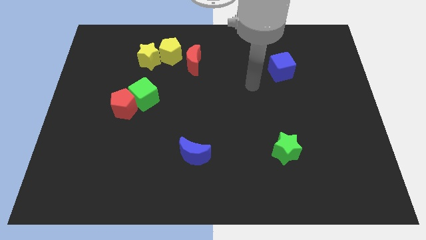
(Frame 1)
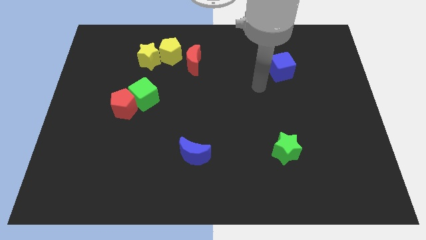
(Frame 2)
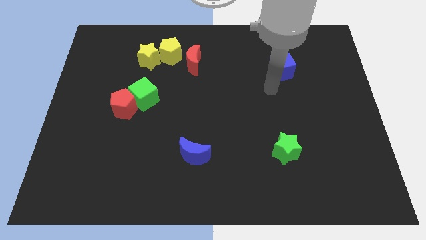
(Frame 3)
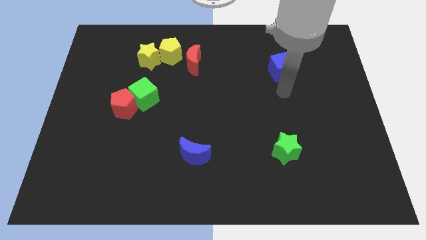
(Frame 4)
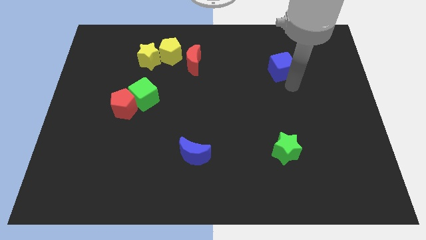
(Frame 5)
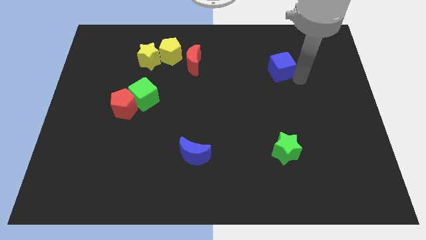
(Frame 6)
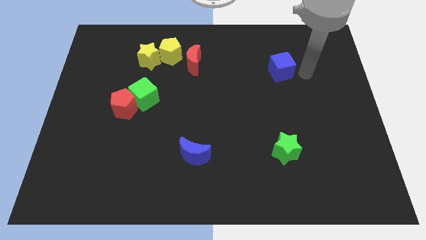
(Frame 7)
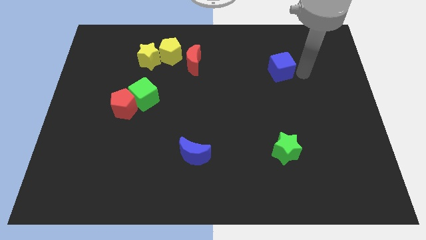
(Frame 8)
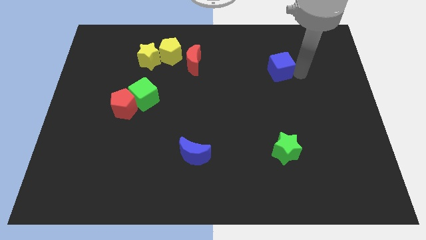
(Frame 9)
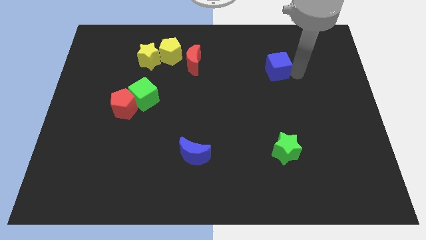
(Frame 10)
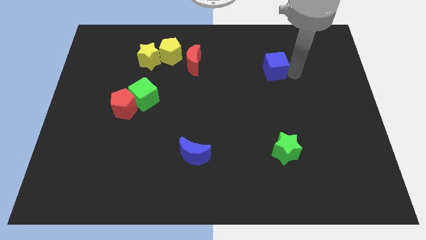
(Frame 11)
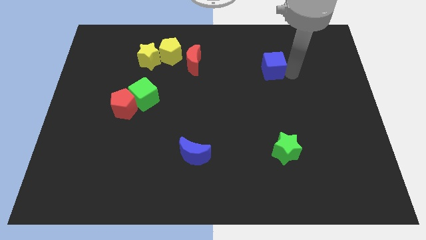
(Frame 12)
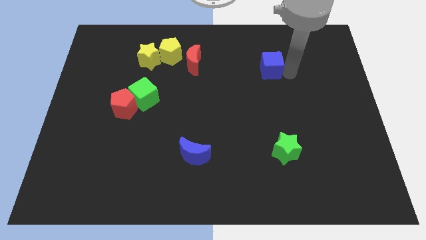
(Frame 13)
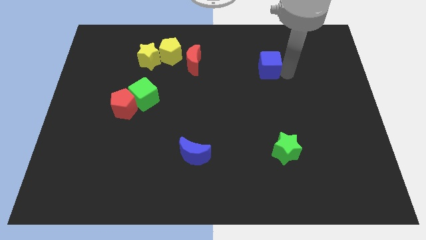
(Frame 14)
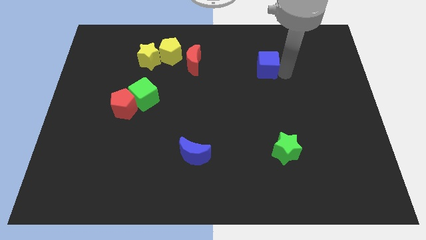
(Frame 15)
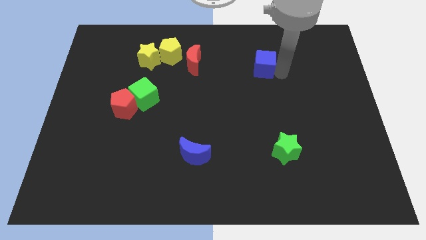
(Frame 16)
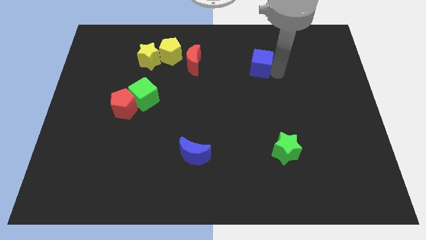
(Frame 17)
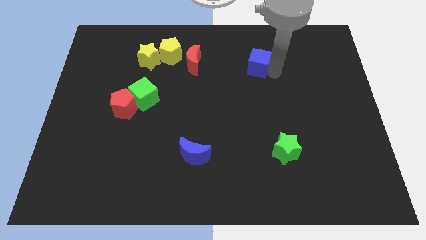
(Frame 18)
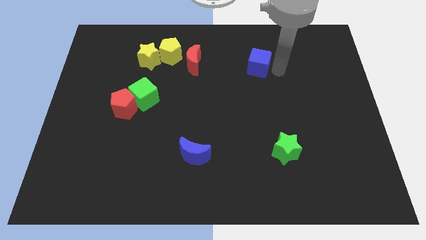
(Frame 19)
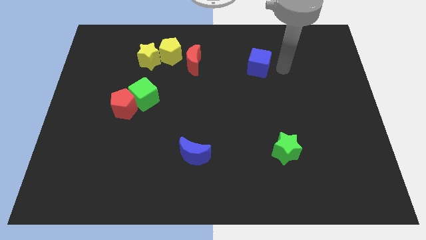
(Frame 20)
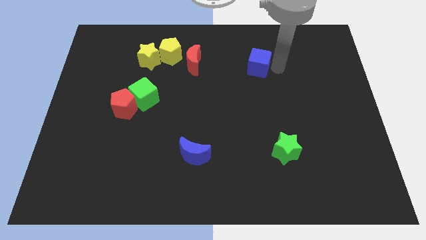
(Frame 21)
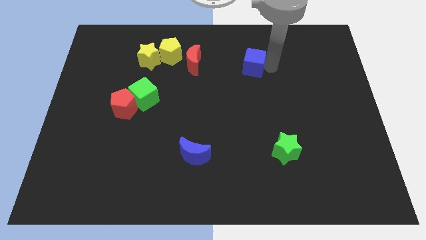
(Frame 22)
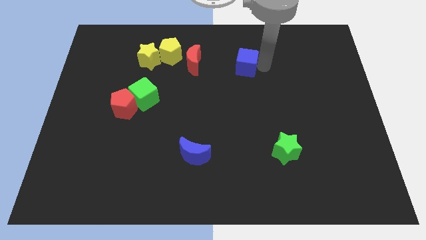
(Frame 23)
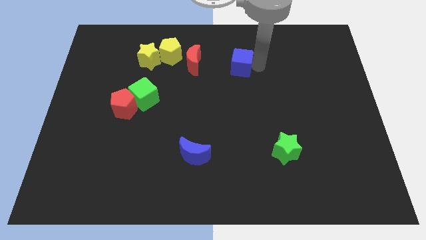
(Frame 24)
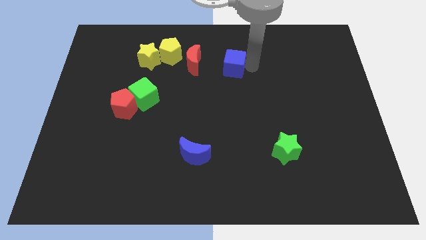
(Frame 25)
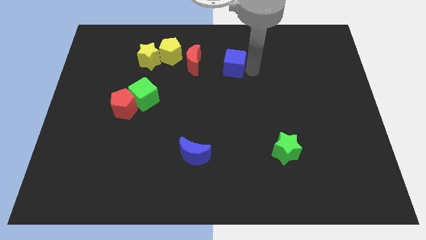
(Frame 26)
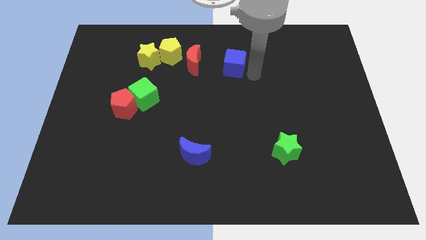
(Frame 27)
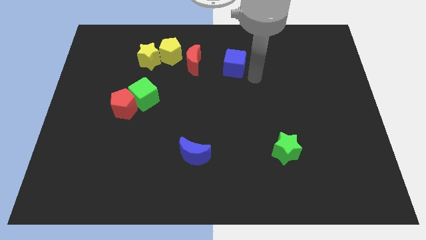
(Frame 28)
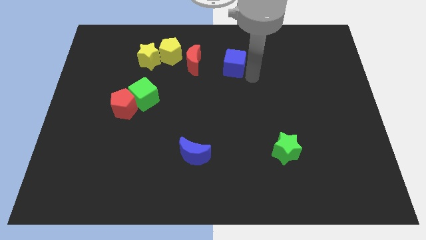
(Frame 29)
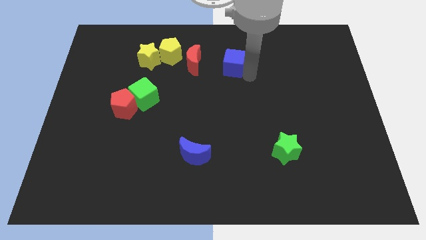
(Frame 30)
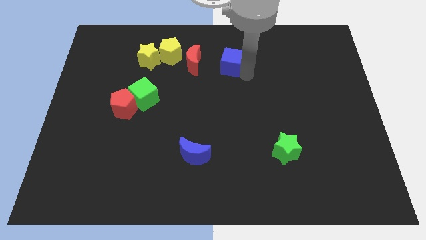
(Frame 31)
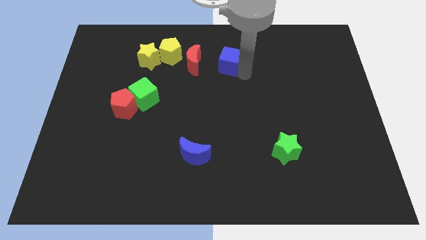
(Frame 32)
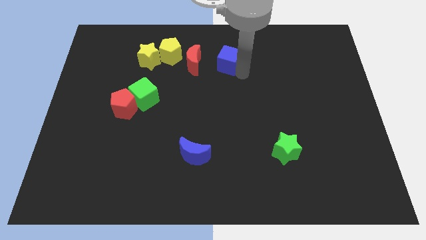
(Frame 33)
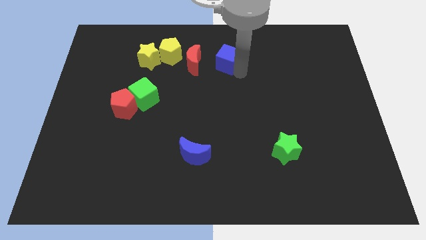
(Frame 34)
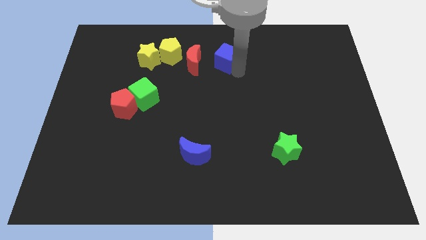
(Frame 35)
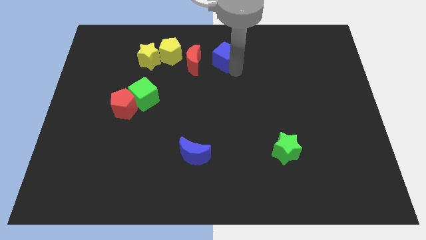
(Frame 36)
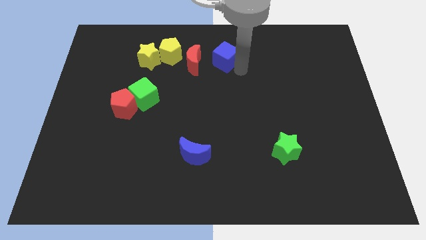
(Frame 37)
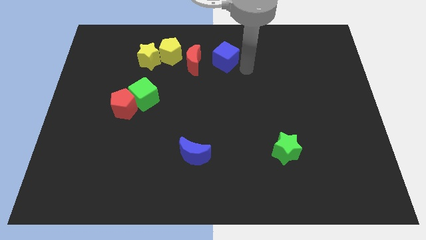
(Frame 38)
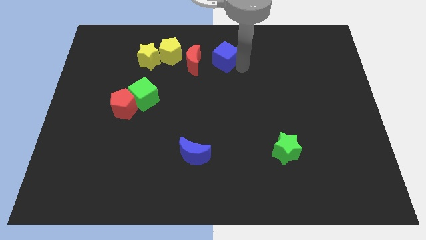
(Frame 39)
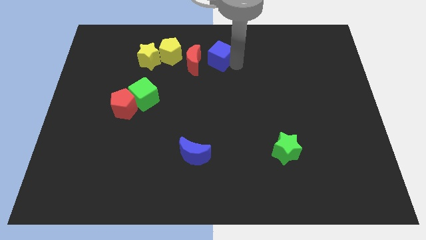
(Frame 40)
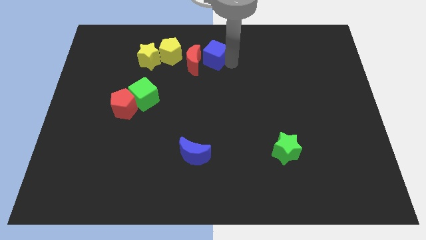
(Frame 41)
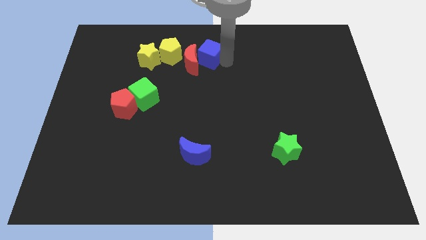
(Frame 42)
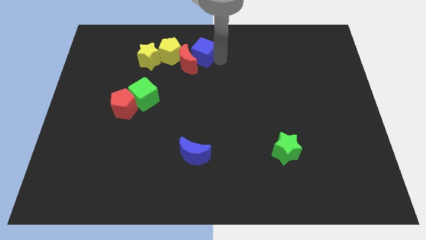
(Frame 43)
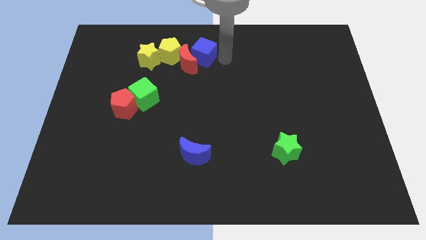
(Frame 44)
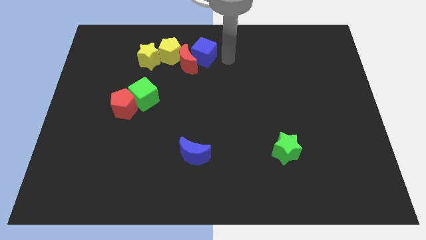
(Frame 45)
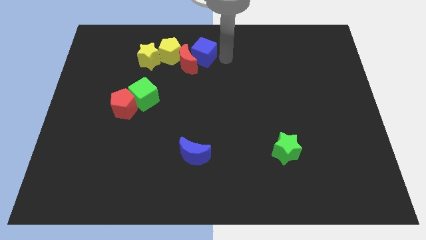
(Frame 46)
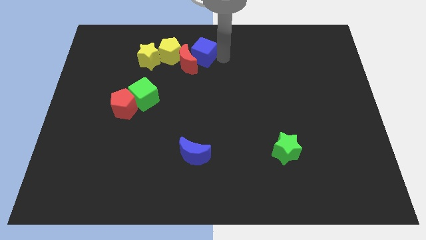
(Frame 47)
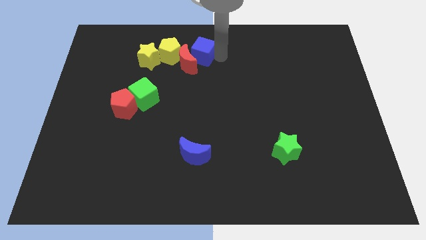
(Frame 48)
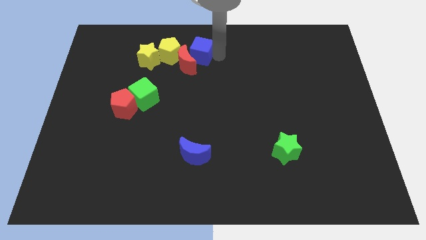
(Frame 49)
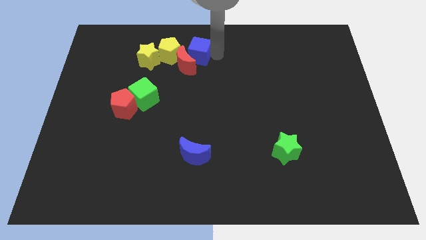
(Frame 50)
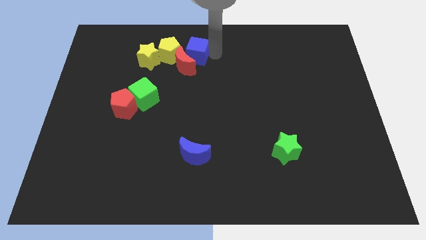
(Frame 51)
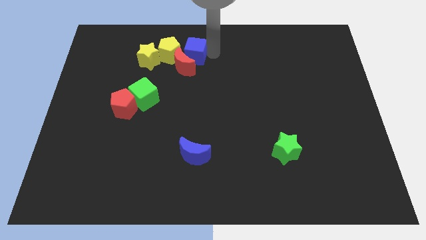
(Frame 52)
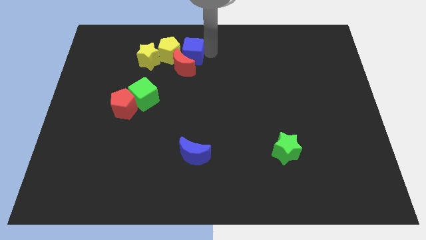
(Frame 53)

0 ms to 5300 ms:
slide the blue cube next to the yellow pentagon

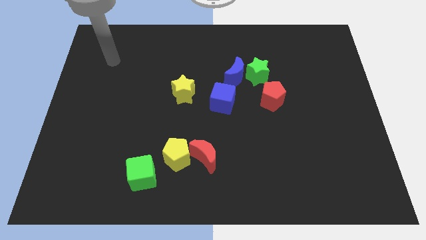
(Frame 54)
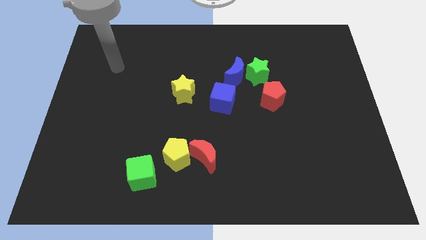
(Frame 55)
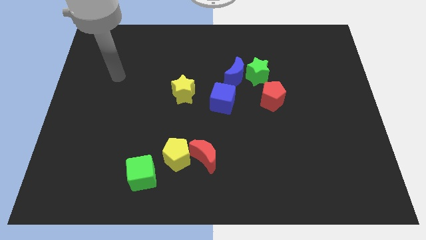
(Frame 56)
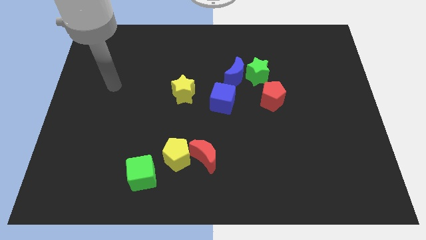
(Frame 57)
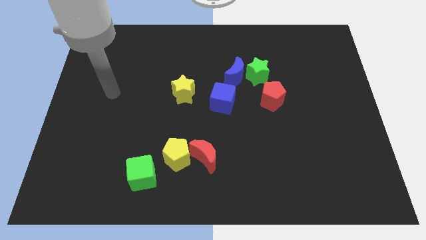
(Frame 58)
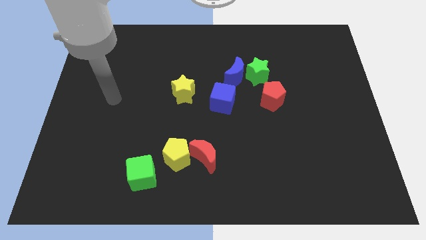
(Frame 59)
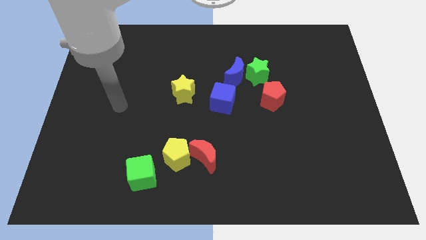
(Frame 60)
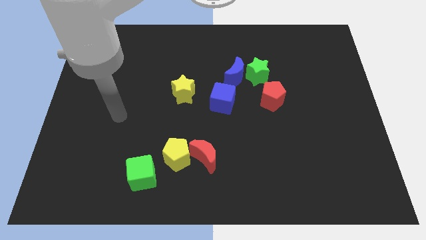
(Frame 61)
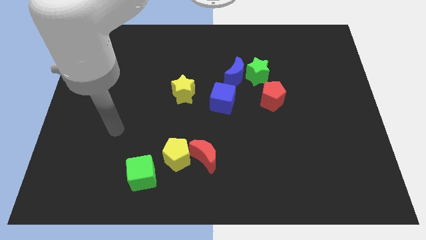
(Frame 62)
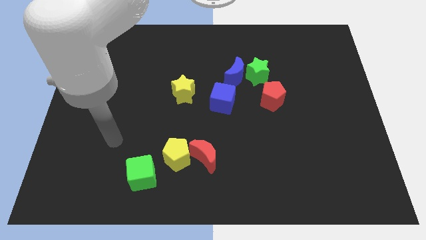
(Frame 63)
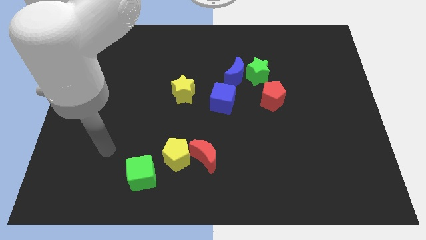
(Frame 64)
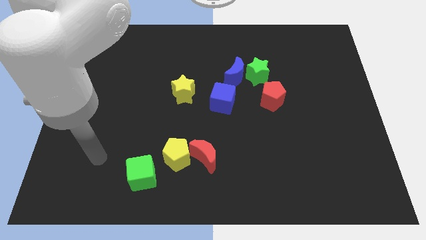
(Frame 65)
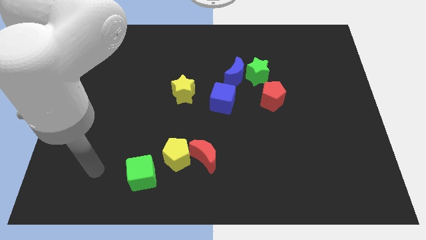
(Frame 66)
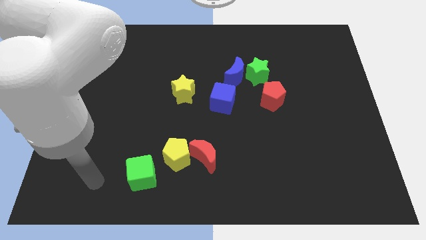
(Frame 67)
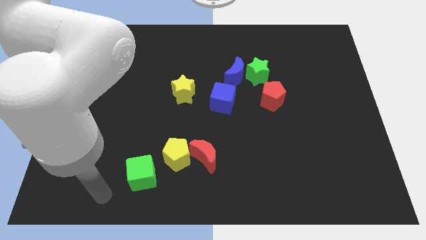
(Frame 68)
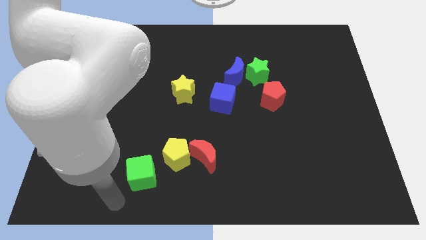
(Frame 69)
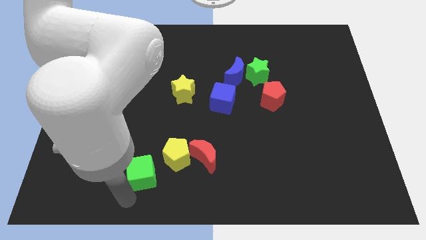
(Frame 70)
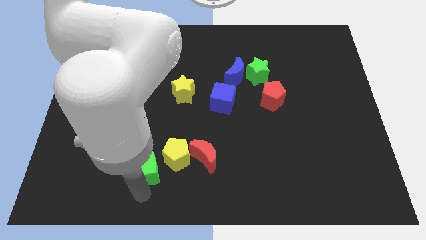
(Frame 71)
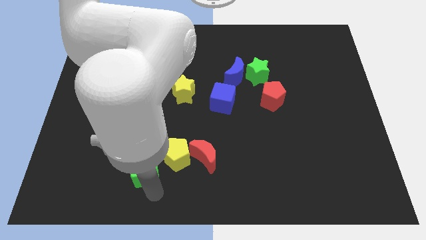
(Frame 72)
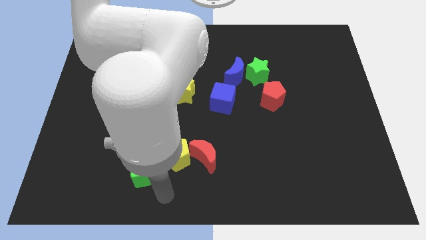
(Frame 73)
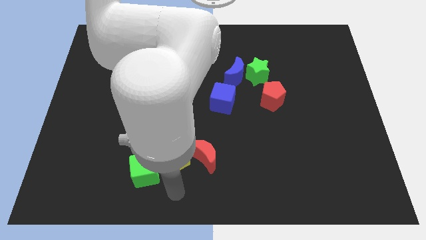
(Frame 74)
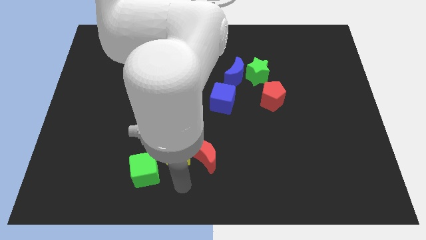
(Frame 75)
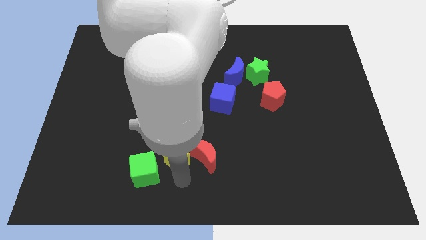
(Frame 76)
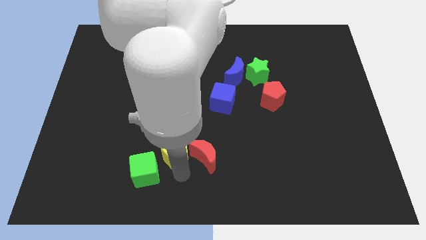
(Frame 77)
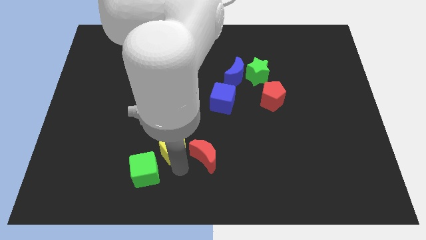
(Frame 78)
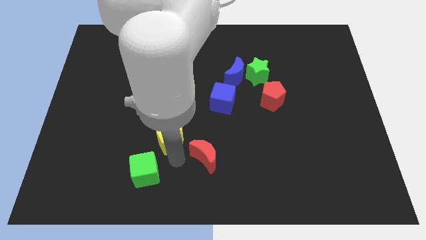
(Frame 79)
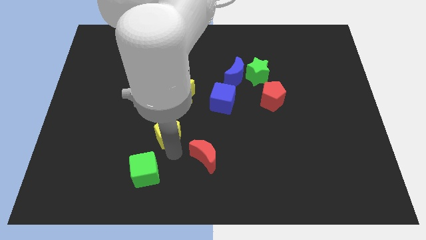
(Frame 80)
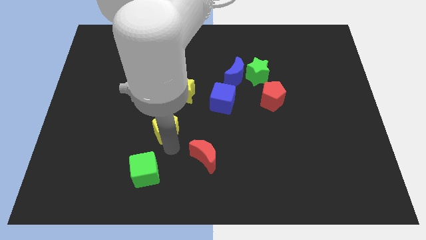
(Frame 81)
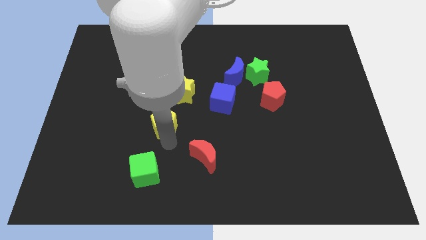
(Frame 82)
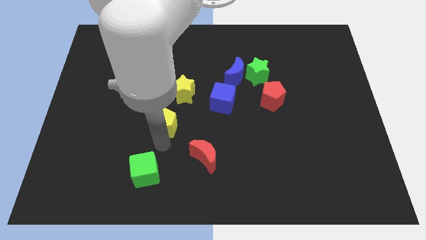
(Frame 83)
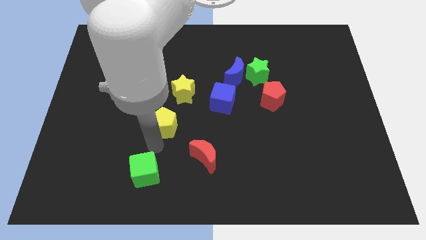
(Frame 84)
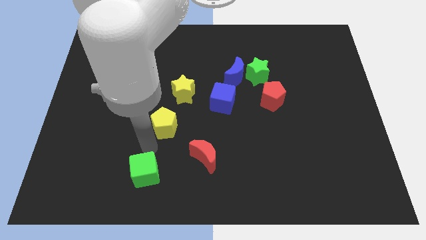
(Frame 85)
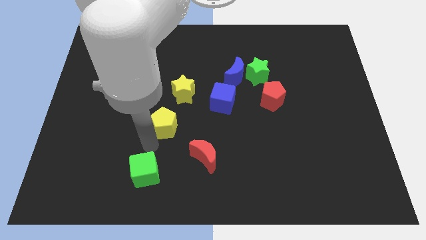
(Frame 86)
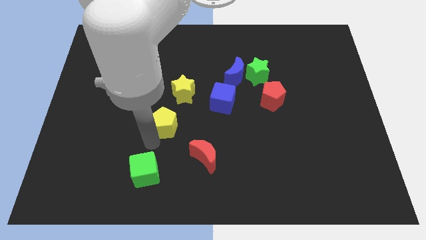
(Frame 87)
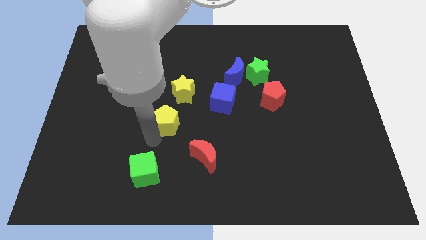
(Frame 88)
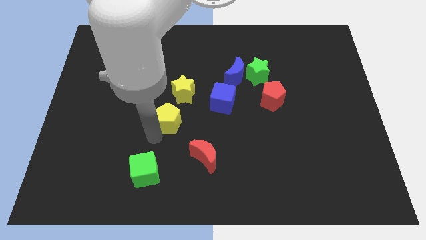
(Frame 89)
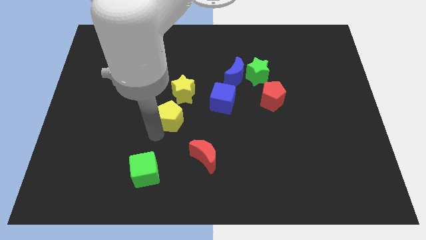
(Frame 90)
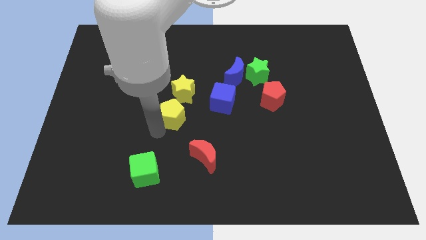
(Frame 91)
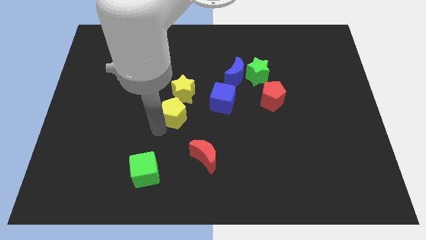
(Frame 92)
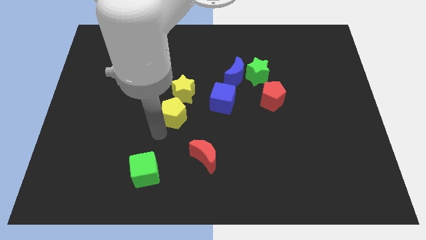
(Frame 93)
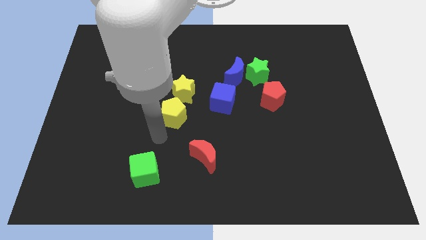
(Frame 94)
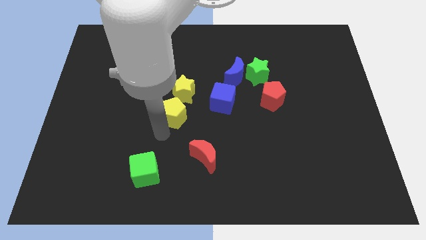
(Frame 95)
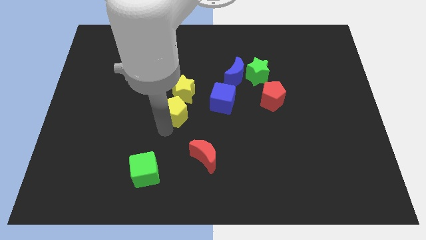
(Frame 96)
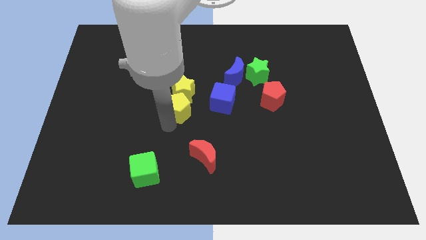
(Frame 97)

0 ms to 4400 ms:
put the yellow pentagon close to the yellow star
